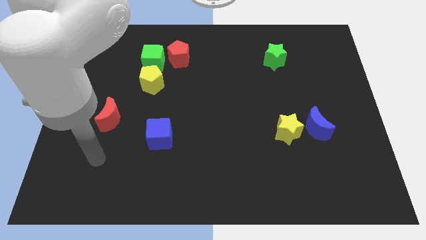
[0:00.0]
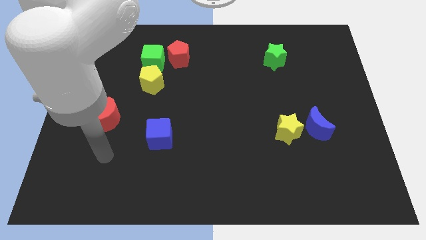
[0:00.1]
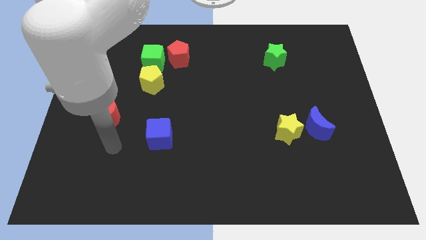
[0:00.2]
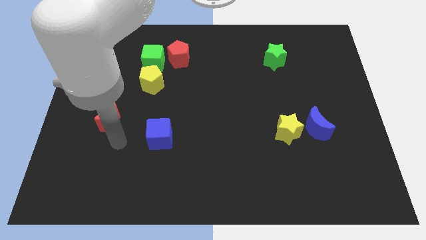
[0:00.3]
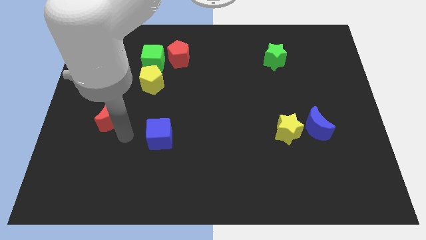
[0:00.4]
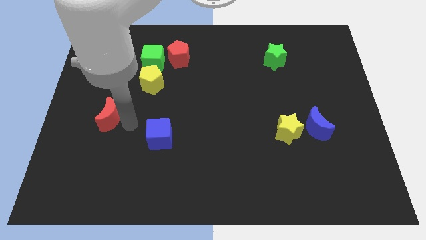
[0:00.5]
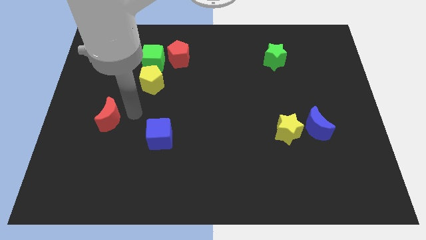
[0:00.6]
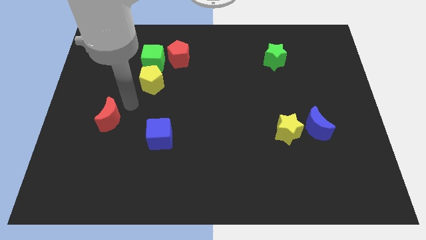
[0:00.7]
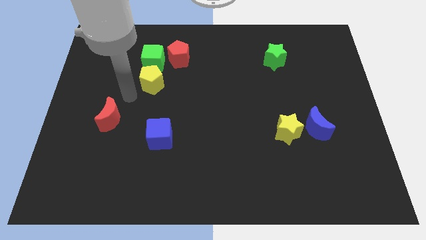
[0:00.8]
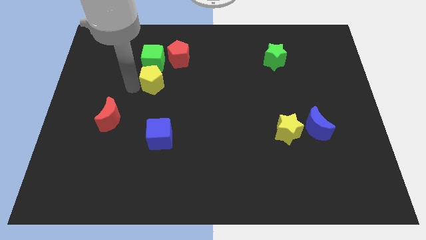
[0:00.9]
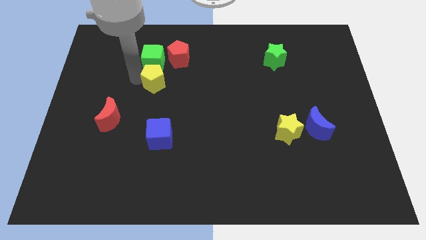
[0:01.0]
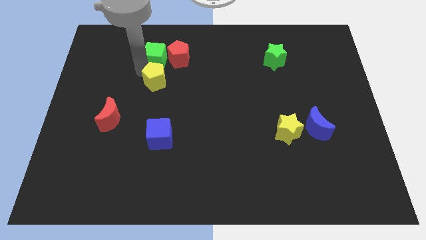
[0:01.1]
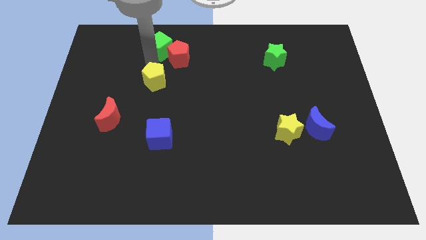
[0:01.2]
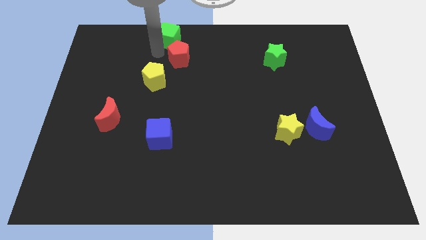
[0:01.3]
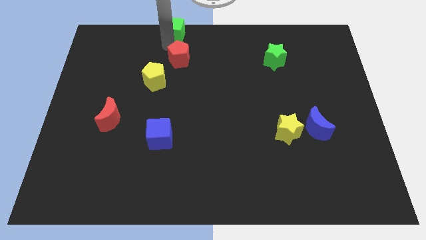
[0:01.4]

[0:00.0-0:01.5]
move the red pentagon away from the green cube

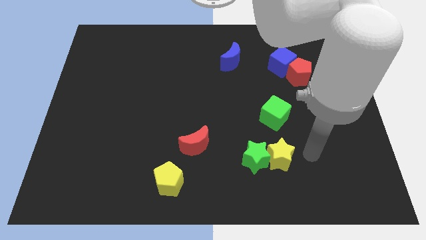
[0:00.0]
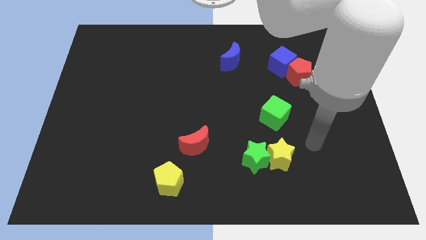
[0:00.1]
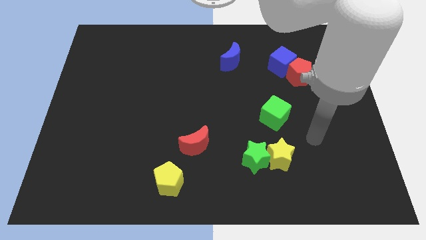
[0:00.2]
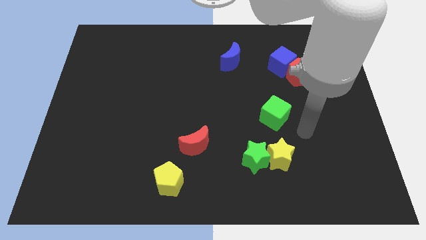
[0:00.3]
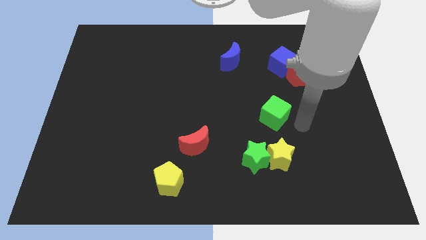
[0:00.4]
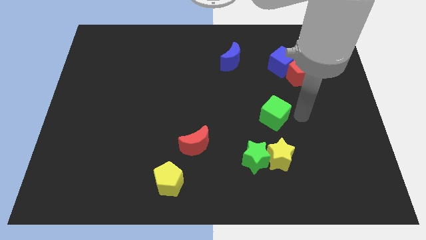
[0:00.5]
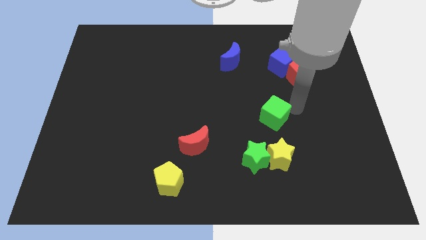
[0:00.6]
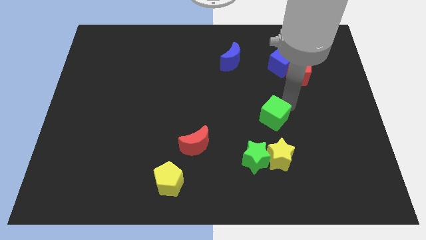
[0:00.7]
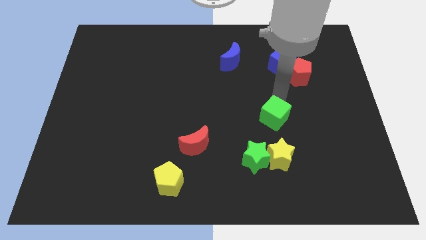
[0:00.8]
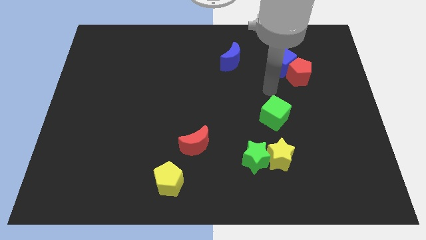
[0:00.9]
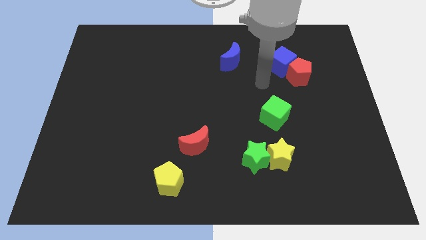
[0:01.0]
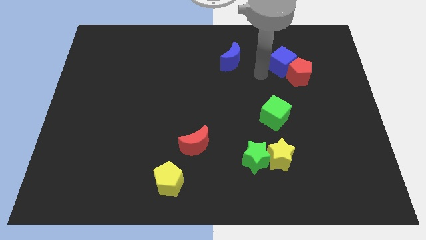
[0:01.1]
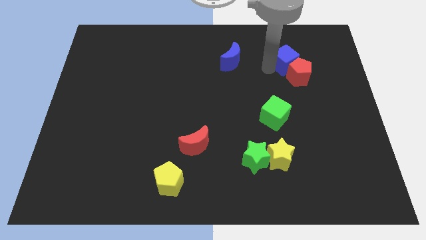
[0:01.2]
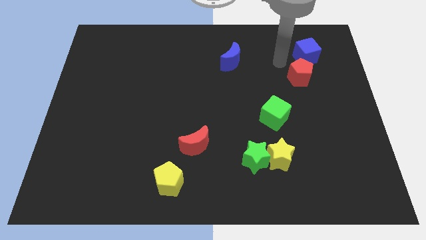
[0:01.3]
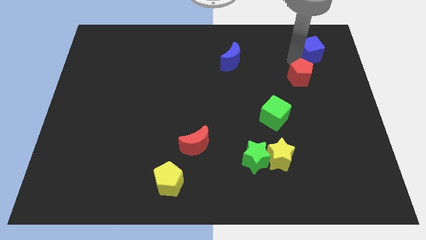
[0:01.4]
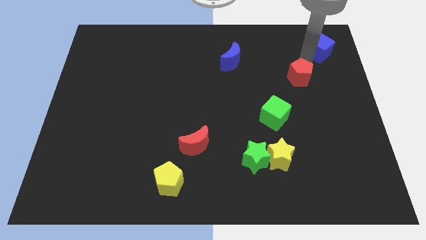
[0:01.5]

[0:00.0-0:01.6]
pull the red pentagon apart from the blue cube

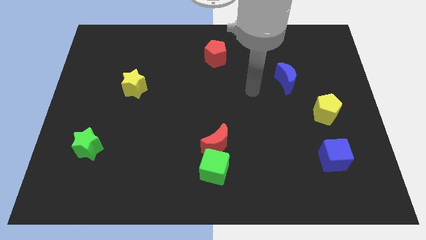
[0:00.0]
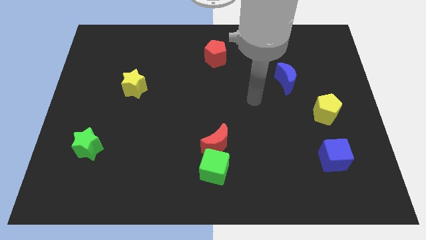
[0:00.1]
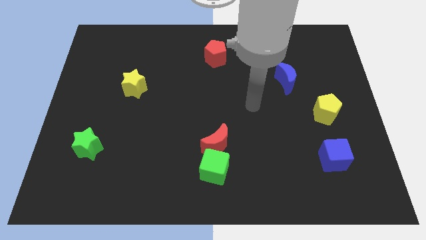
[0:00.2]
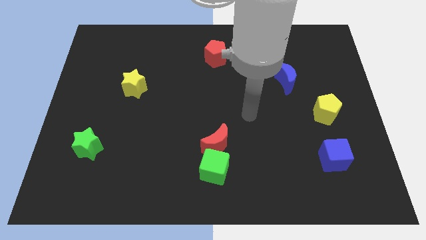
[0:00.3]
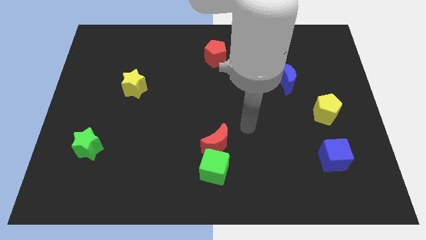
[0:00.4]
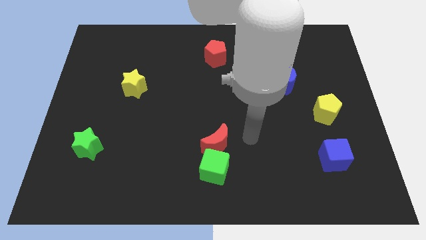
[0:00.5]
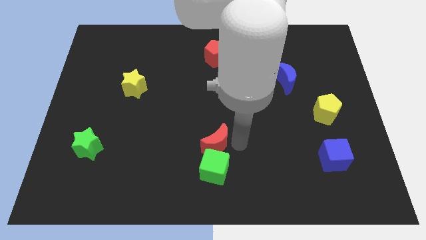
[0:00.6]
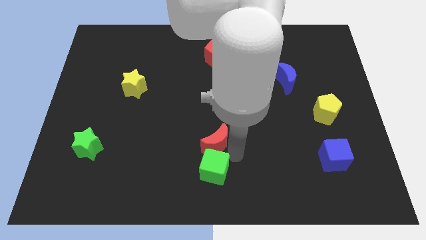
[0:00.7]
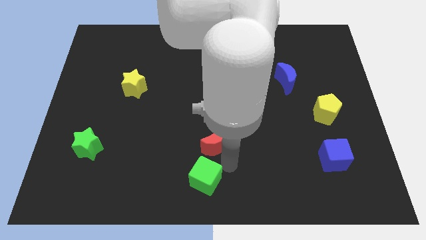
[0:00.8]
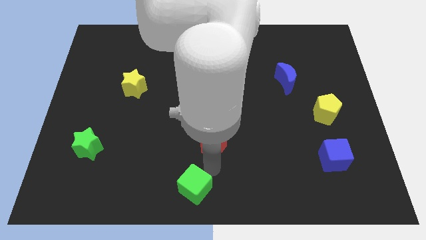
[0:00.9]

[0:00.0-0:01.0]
pull the red moon apart from the green cube

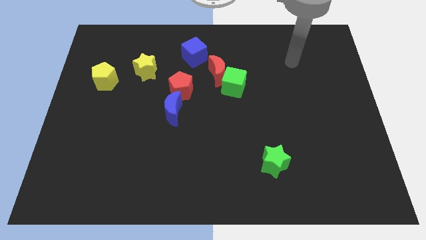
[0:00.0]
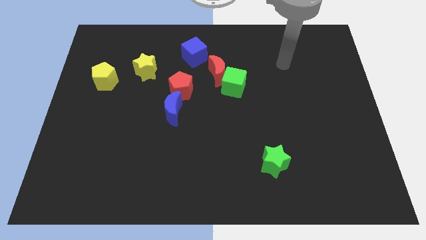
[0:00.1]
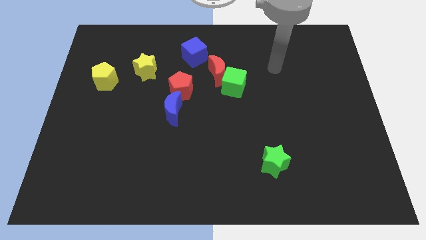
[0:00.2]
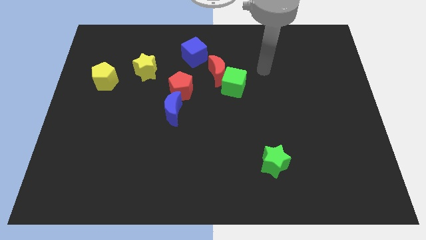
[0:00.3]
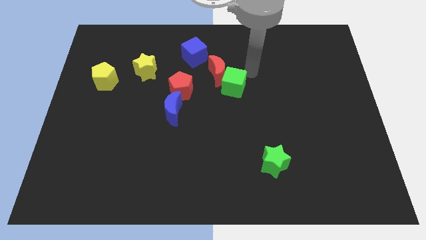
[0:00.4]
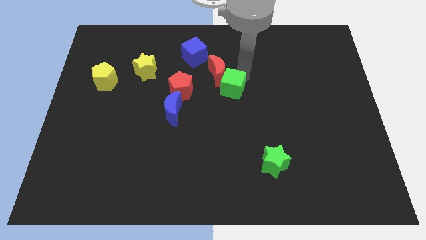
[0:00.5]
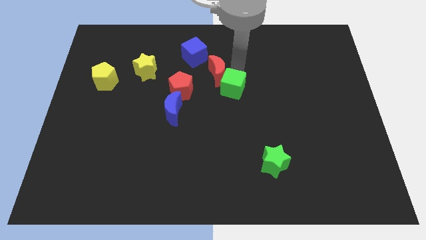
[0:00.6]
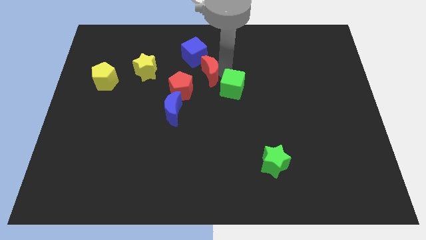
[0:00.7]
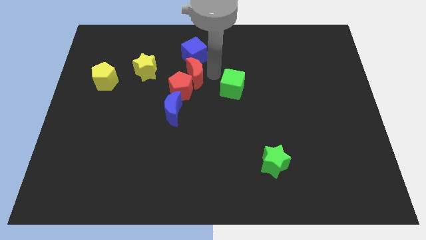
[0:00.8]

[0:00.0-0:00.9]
pull the green cube apart from the red moon

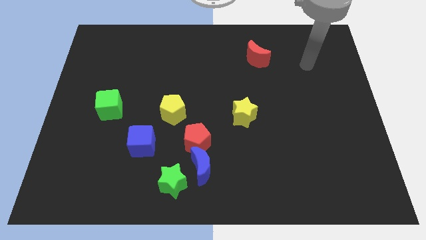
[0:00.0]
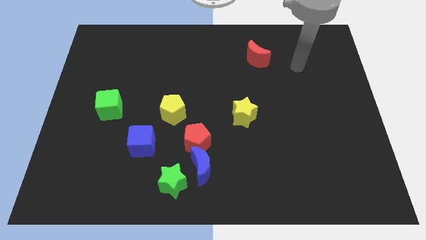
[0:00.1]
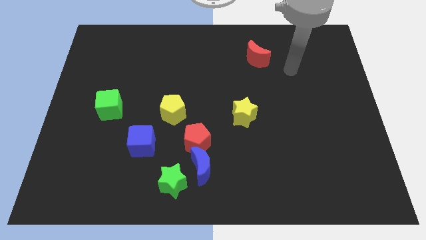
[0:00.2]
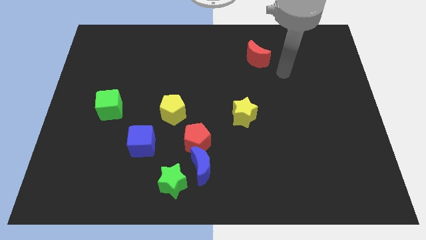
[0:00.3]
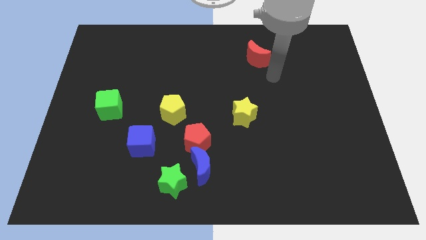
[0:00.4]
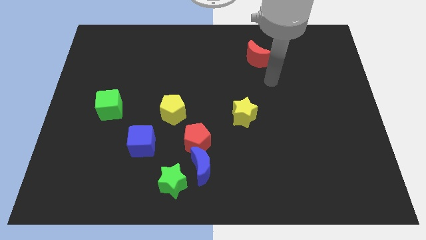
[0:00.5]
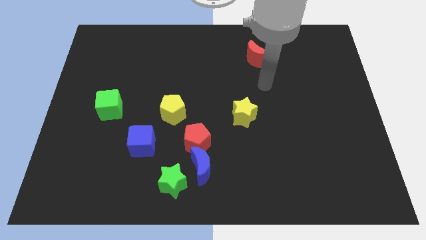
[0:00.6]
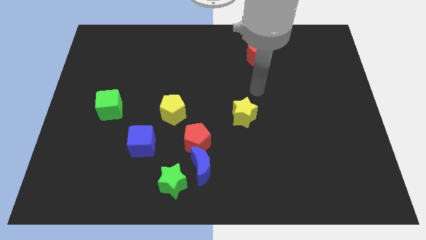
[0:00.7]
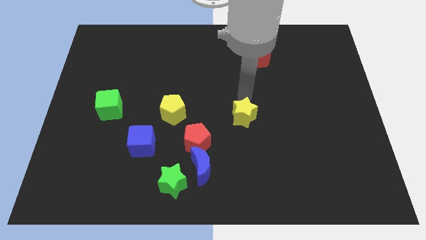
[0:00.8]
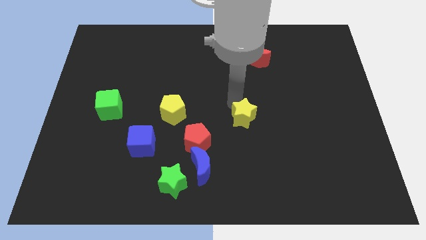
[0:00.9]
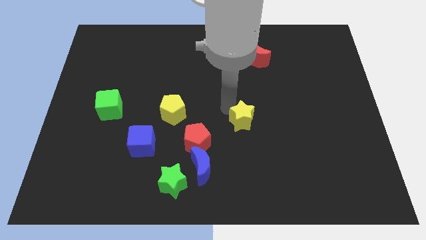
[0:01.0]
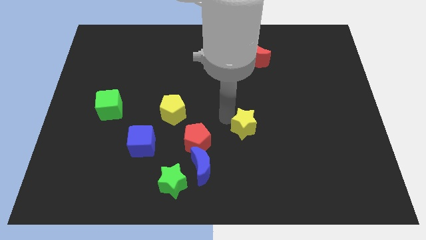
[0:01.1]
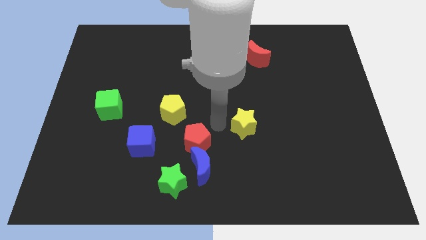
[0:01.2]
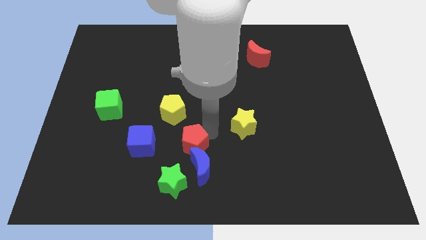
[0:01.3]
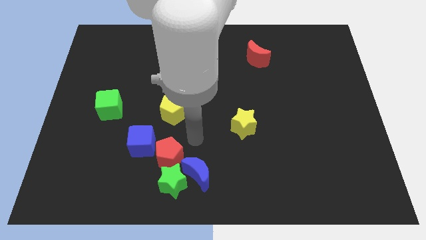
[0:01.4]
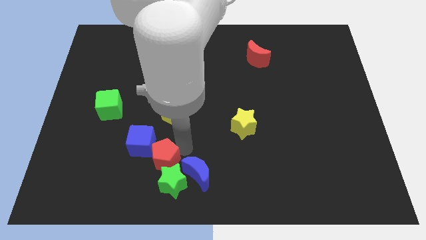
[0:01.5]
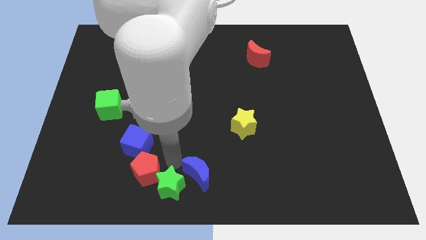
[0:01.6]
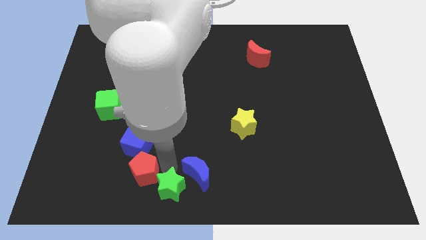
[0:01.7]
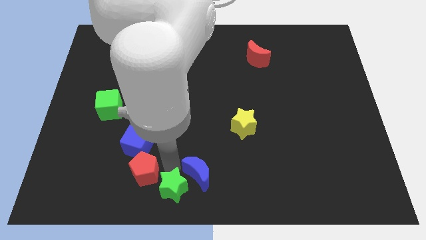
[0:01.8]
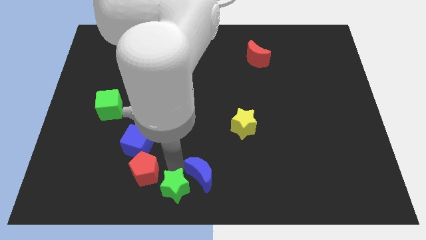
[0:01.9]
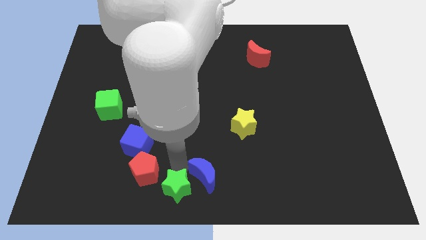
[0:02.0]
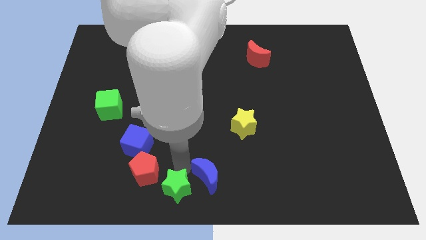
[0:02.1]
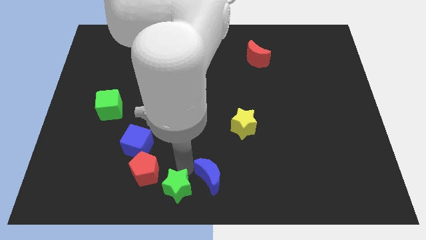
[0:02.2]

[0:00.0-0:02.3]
pull the blue moon apart from the red pentagon and green star

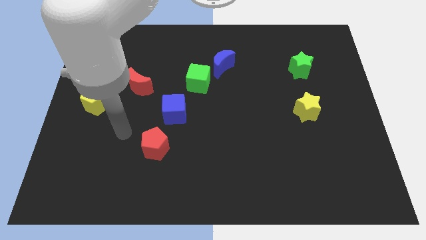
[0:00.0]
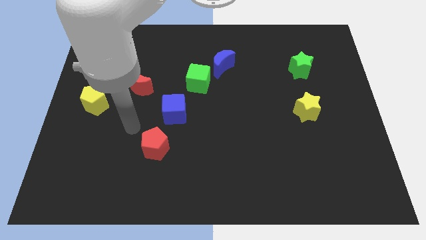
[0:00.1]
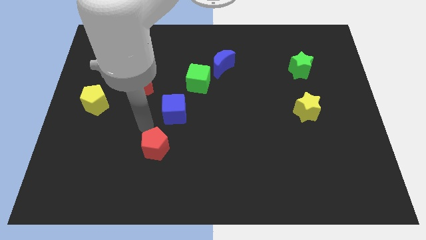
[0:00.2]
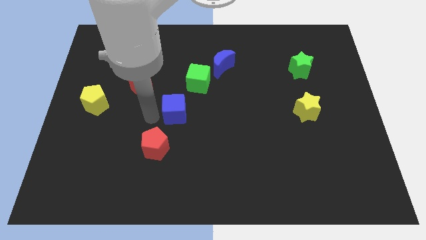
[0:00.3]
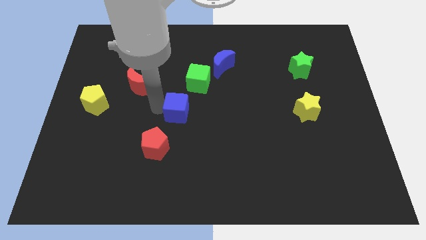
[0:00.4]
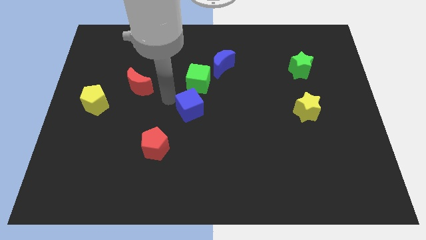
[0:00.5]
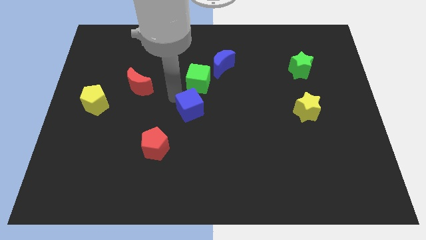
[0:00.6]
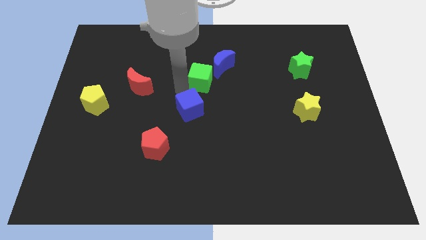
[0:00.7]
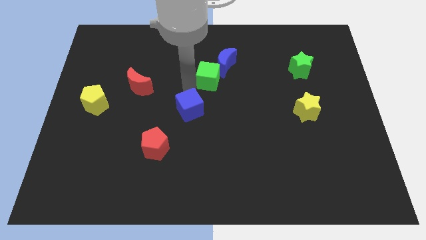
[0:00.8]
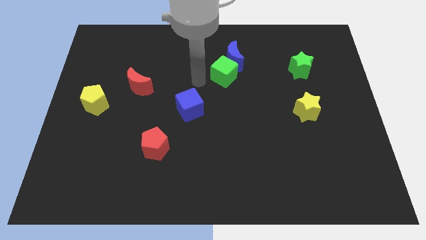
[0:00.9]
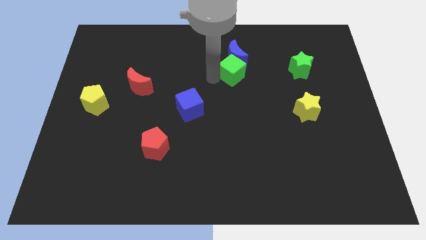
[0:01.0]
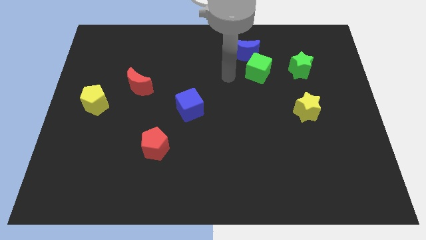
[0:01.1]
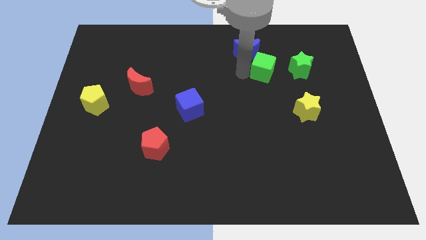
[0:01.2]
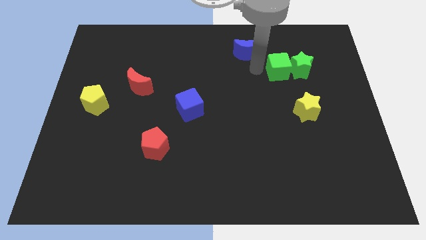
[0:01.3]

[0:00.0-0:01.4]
pull the blue moon apart from the green cube

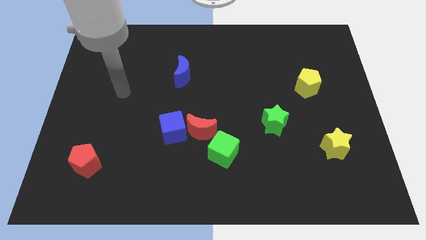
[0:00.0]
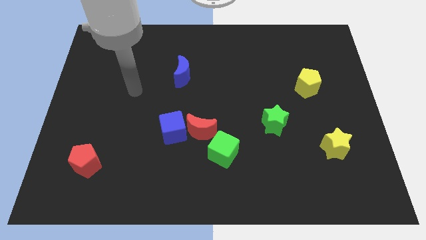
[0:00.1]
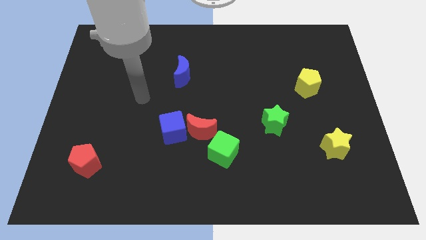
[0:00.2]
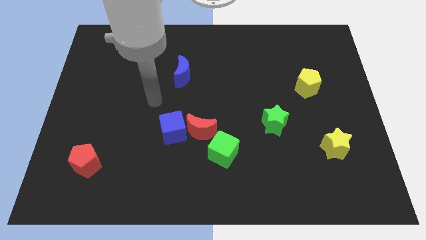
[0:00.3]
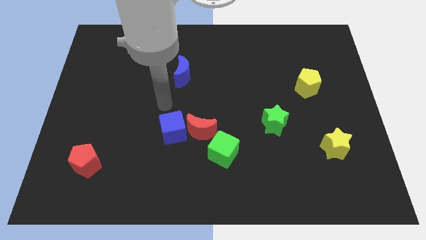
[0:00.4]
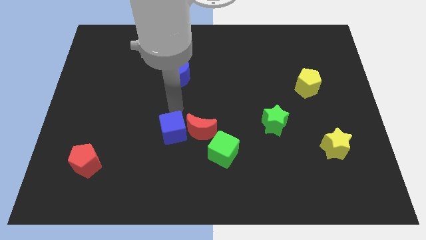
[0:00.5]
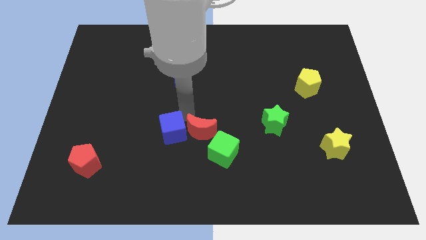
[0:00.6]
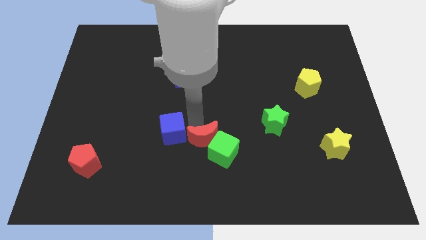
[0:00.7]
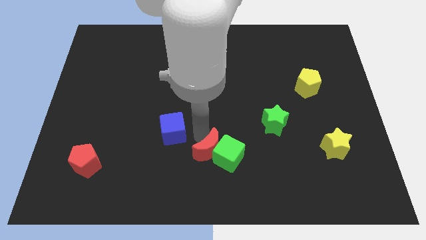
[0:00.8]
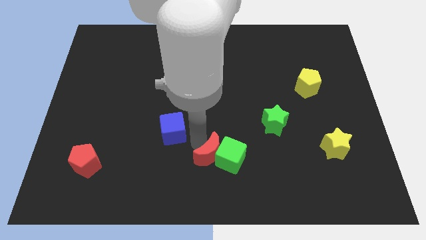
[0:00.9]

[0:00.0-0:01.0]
separate the blue cube from the red moon
